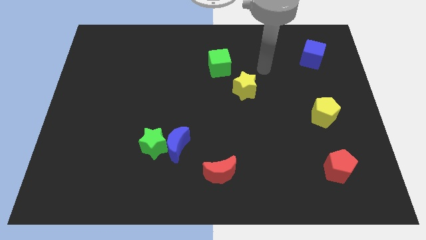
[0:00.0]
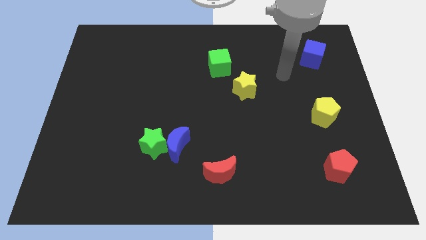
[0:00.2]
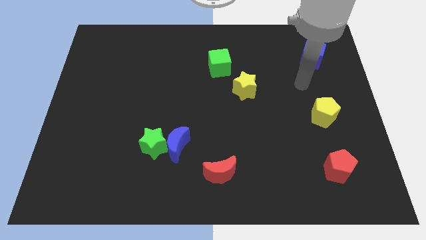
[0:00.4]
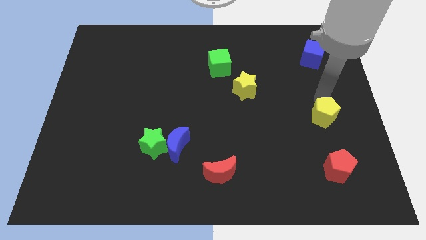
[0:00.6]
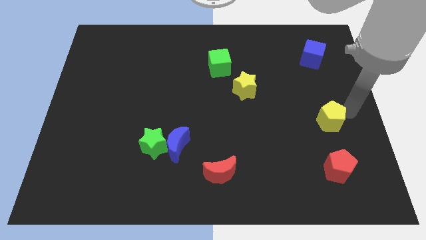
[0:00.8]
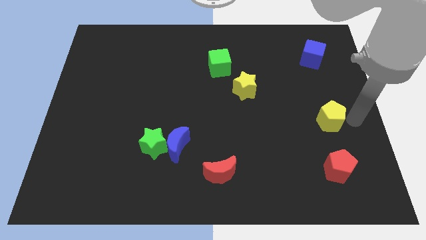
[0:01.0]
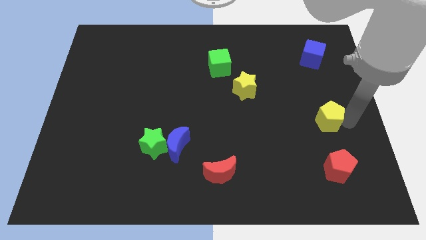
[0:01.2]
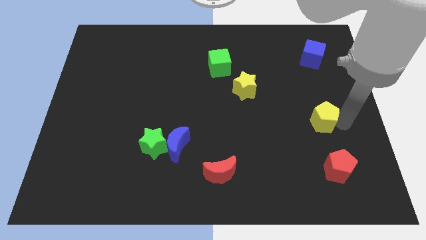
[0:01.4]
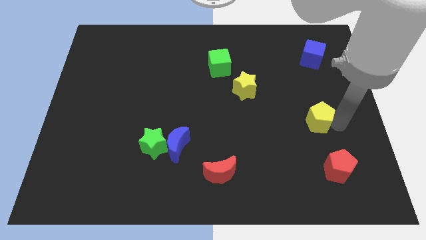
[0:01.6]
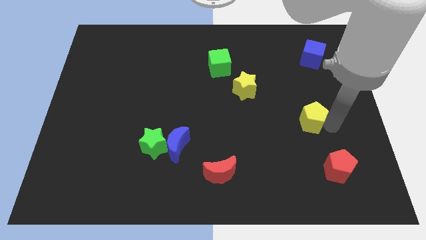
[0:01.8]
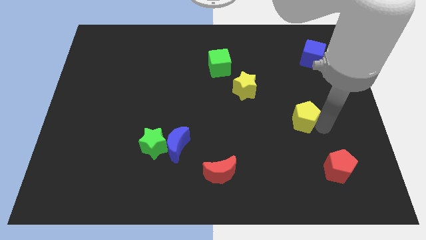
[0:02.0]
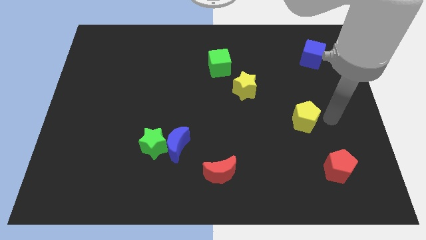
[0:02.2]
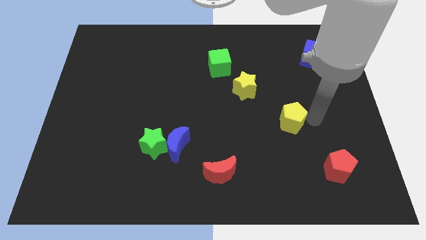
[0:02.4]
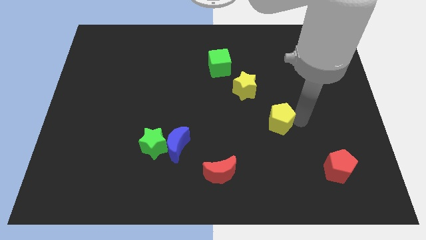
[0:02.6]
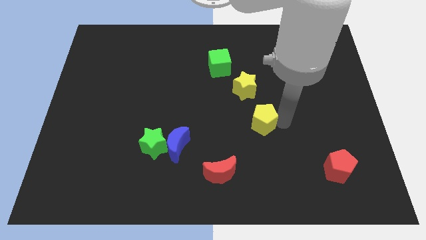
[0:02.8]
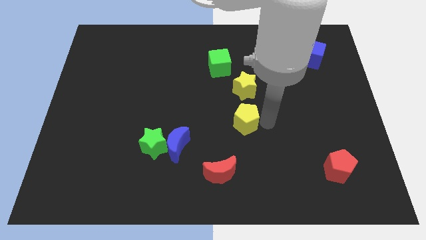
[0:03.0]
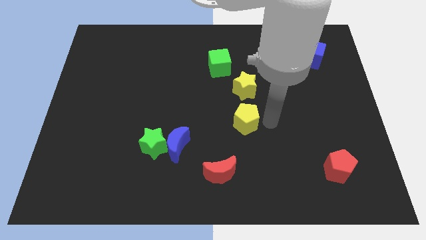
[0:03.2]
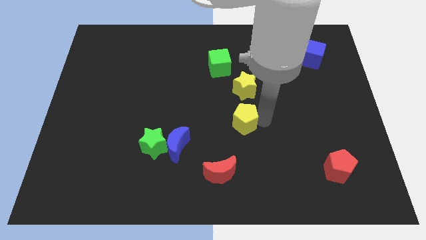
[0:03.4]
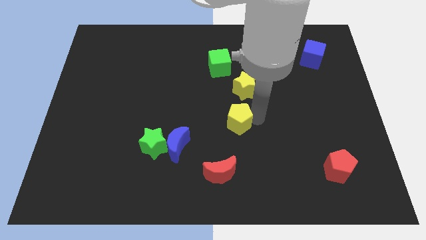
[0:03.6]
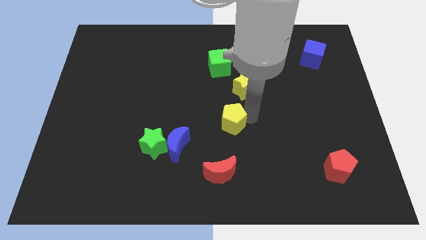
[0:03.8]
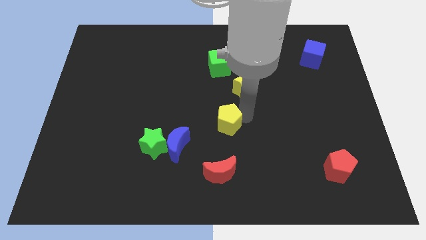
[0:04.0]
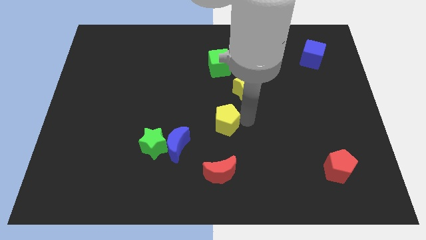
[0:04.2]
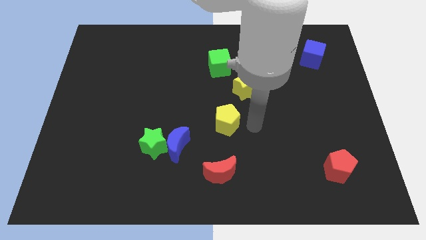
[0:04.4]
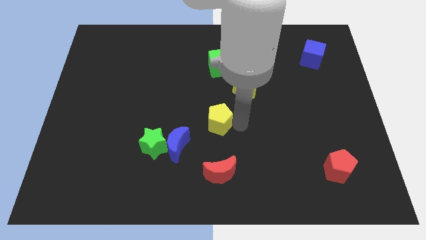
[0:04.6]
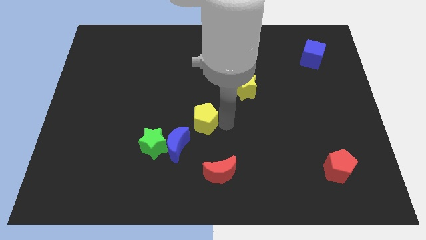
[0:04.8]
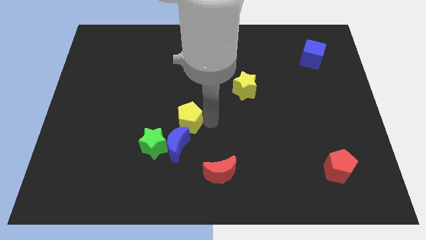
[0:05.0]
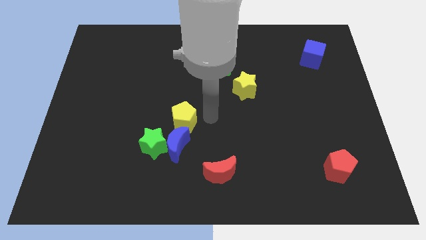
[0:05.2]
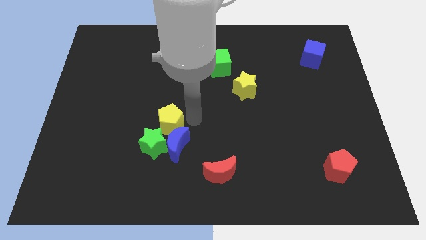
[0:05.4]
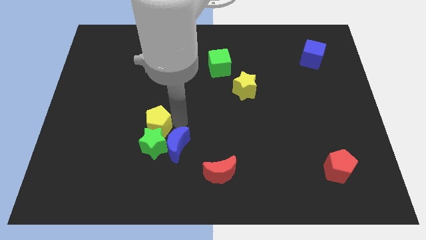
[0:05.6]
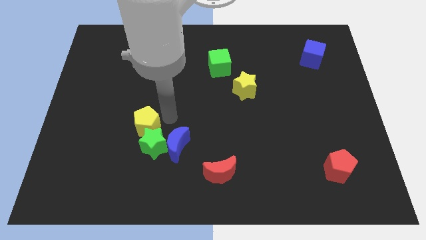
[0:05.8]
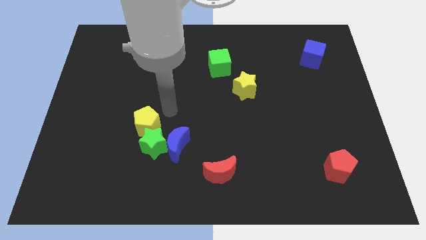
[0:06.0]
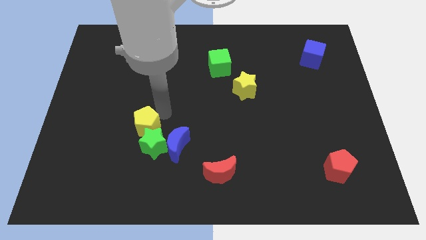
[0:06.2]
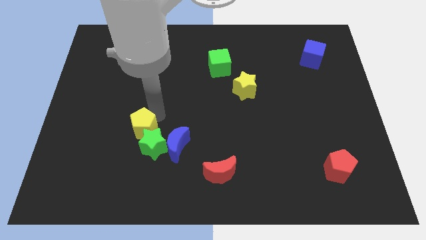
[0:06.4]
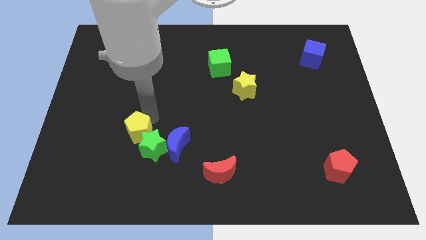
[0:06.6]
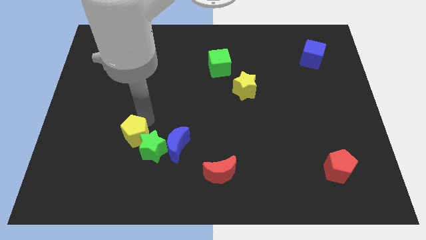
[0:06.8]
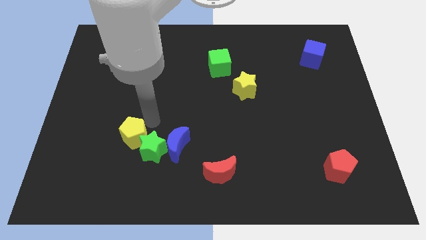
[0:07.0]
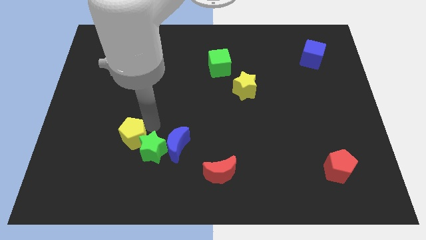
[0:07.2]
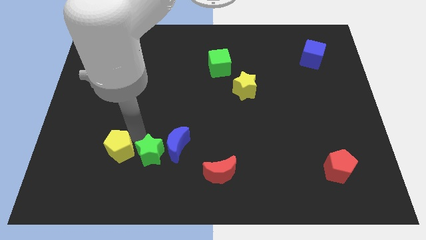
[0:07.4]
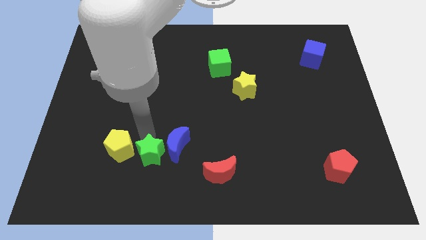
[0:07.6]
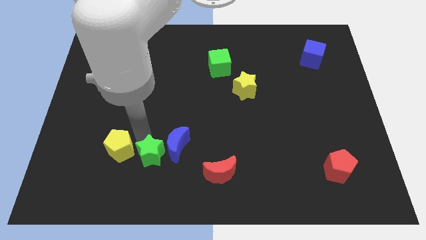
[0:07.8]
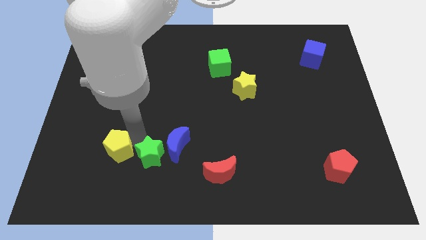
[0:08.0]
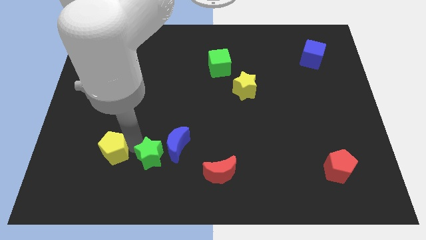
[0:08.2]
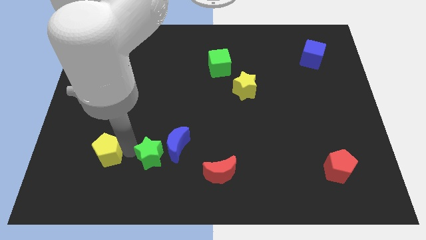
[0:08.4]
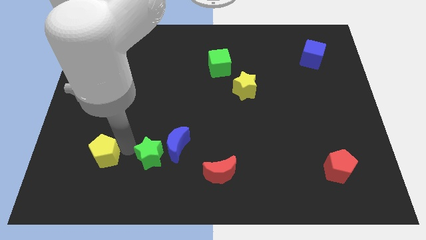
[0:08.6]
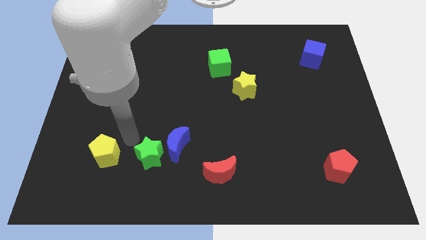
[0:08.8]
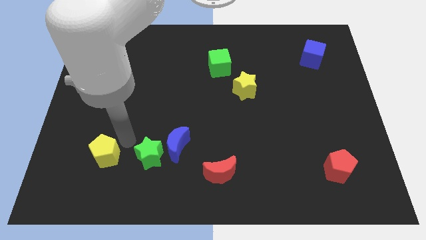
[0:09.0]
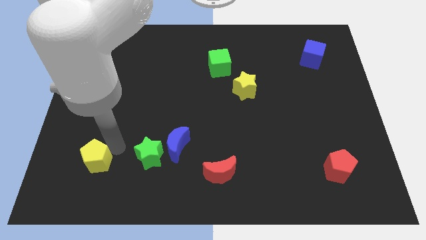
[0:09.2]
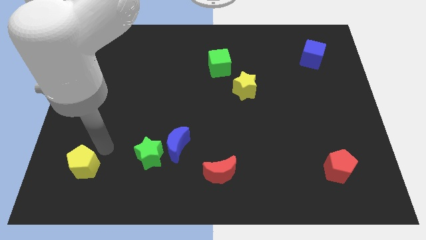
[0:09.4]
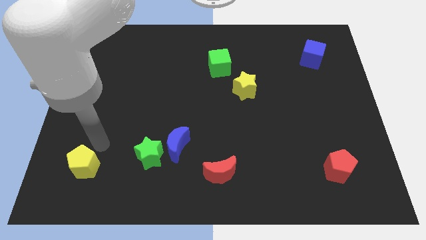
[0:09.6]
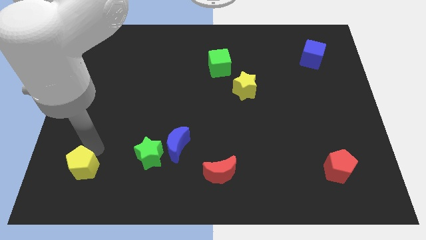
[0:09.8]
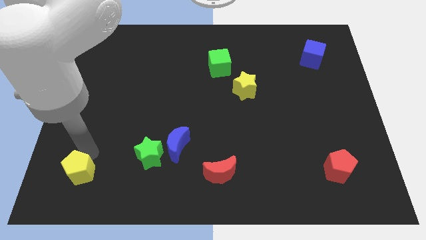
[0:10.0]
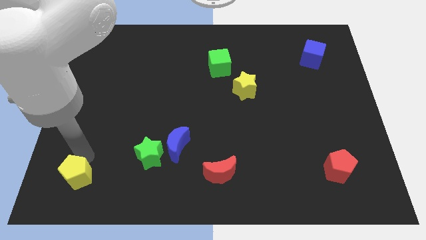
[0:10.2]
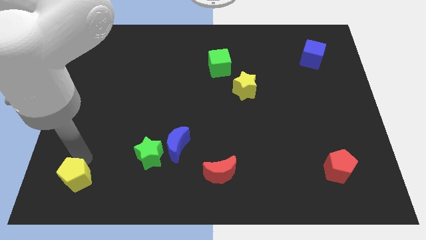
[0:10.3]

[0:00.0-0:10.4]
put the yellow pentagon to the lower left corner
